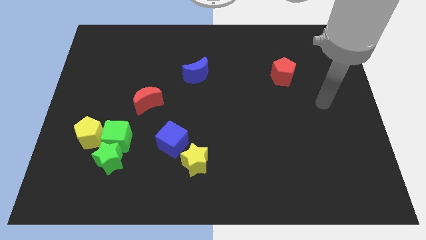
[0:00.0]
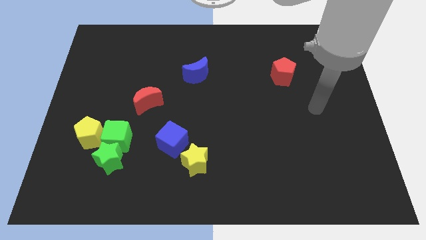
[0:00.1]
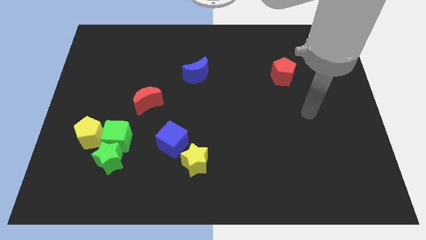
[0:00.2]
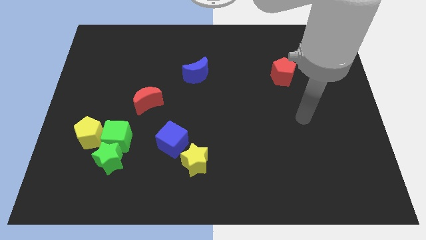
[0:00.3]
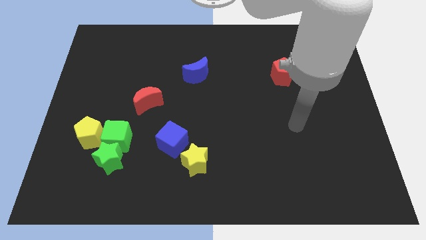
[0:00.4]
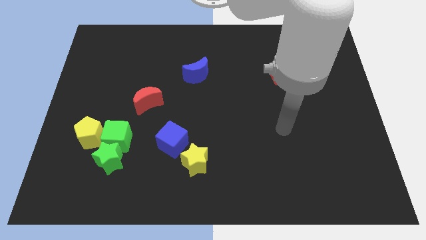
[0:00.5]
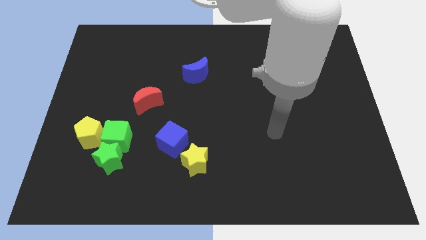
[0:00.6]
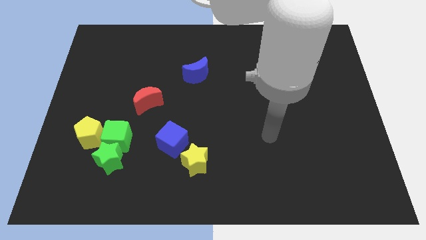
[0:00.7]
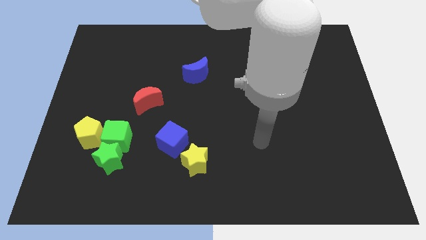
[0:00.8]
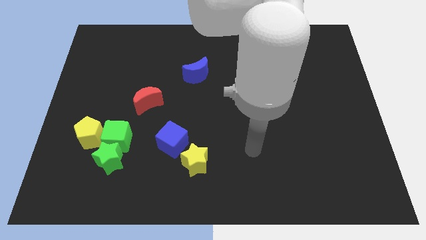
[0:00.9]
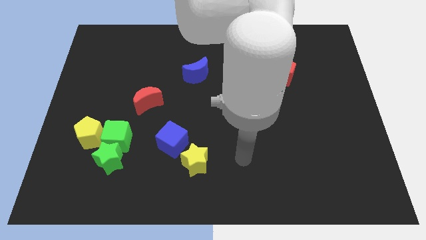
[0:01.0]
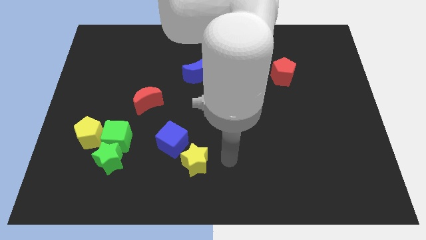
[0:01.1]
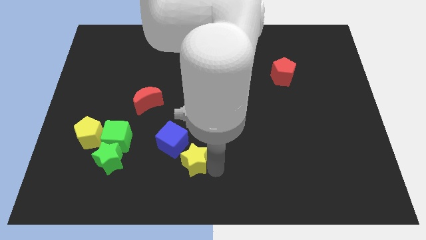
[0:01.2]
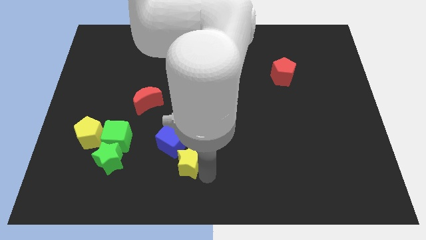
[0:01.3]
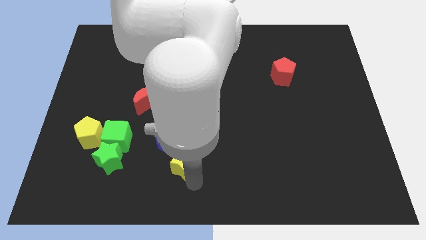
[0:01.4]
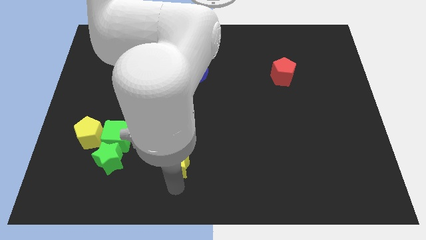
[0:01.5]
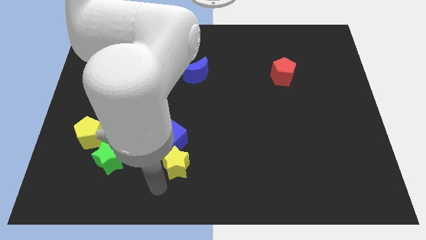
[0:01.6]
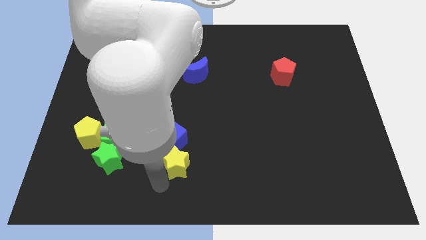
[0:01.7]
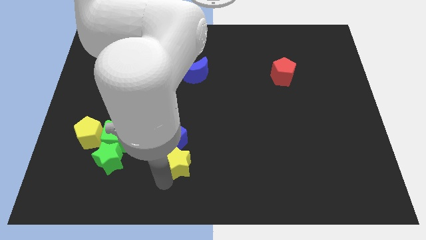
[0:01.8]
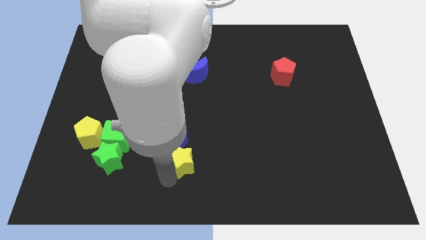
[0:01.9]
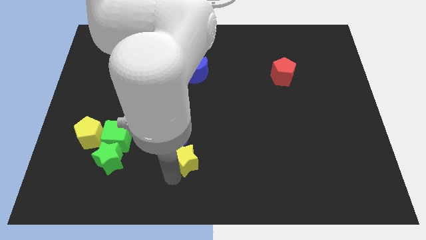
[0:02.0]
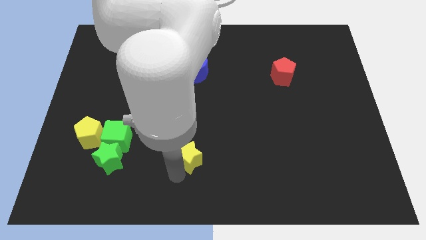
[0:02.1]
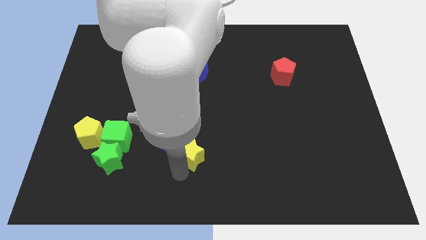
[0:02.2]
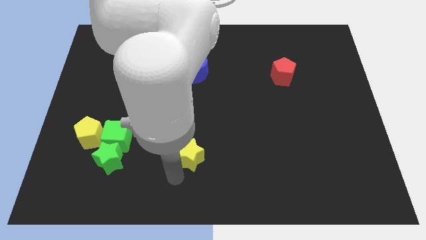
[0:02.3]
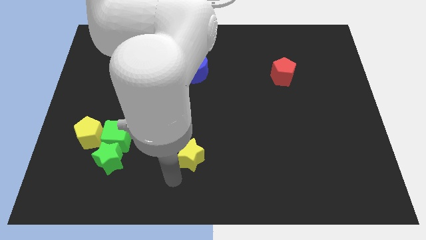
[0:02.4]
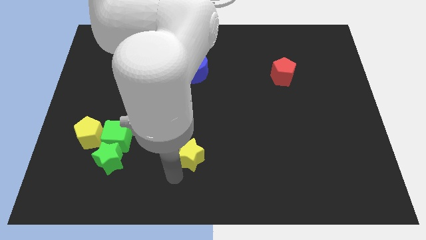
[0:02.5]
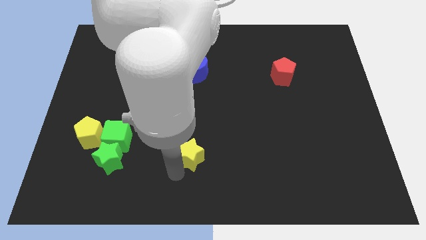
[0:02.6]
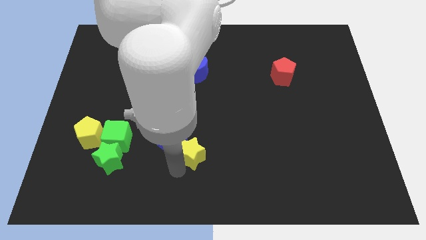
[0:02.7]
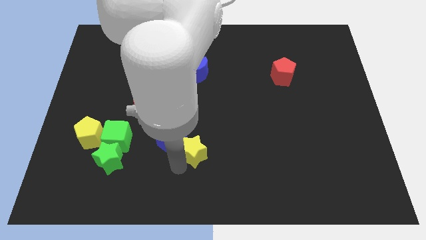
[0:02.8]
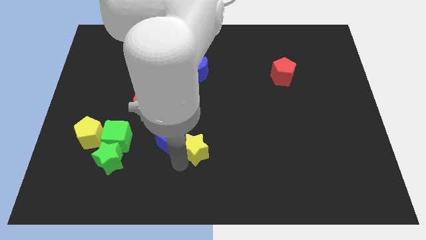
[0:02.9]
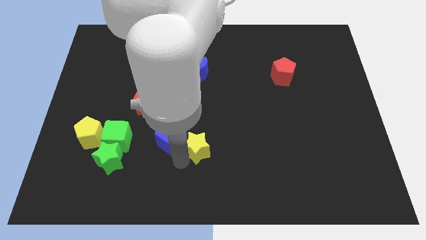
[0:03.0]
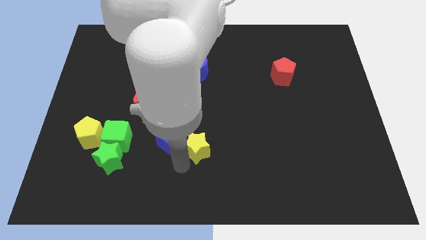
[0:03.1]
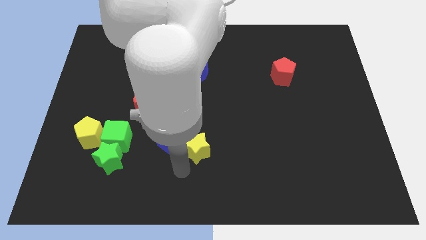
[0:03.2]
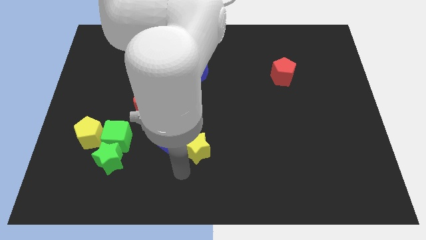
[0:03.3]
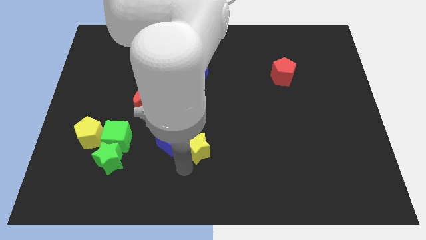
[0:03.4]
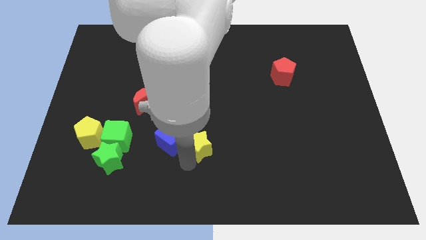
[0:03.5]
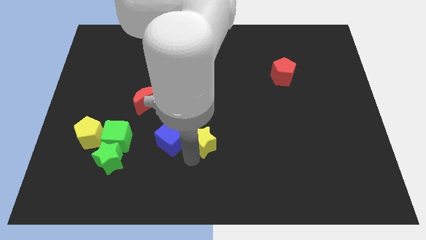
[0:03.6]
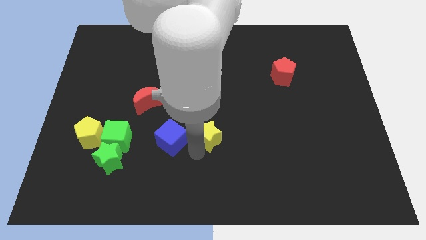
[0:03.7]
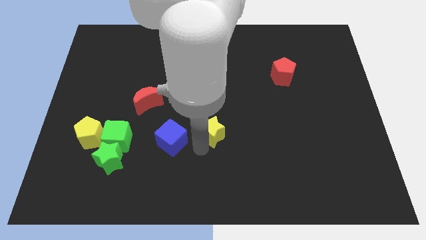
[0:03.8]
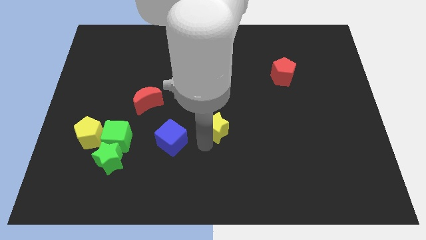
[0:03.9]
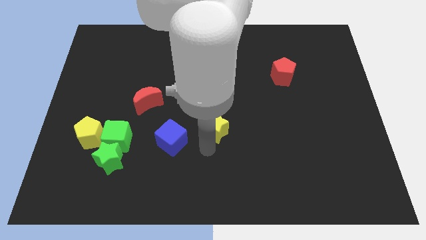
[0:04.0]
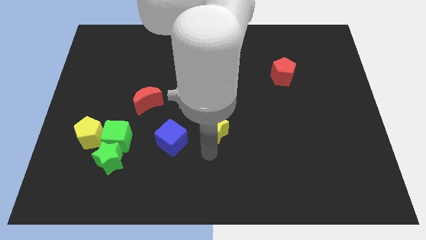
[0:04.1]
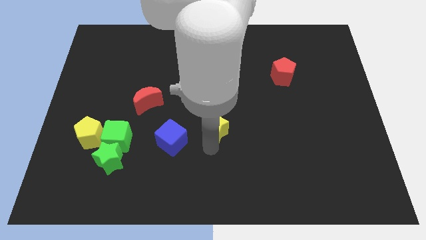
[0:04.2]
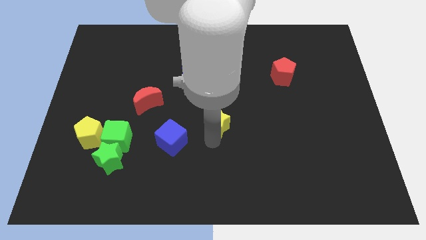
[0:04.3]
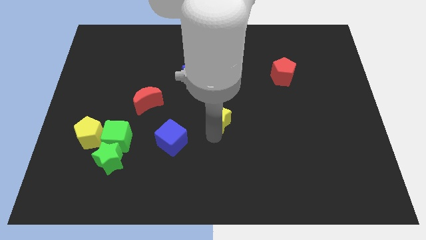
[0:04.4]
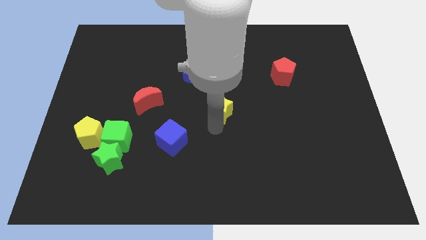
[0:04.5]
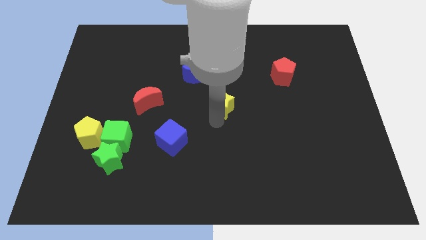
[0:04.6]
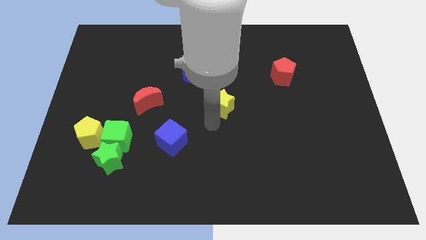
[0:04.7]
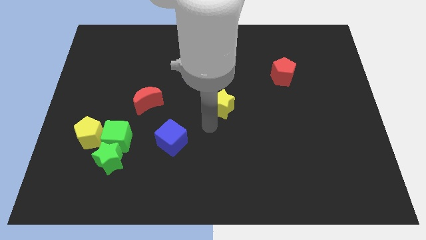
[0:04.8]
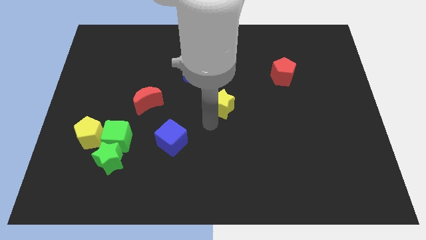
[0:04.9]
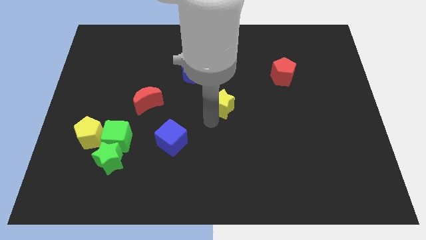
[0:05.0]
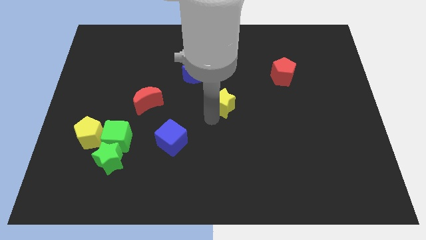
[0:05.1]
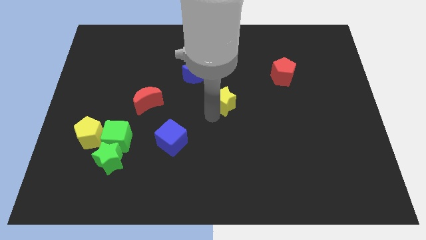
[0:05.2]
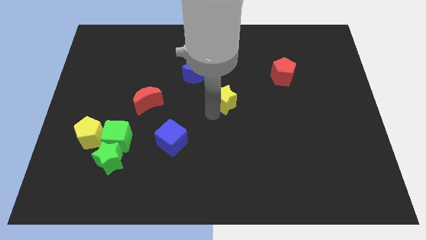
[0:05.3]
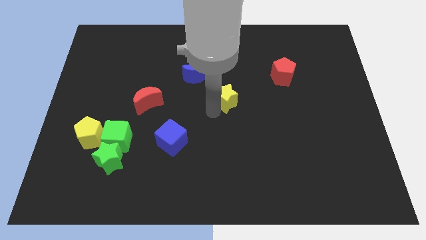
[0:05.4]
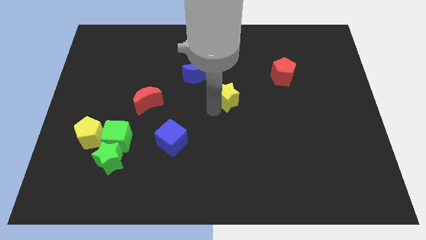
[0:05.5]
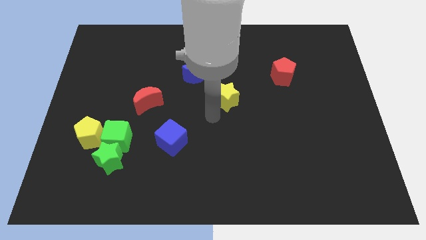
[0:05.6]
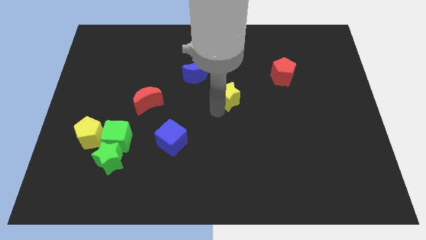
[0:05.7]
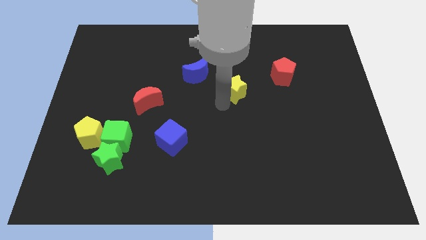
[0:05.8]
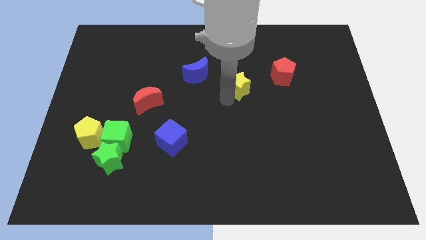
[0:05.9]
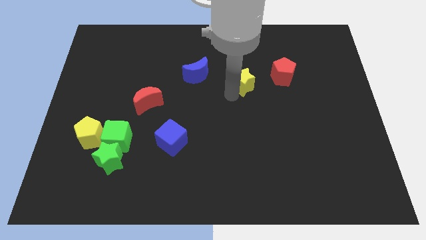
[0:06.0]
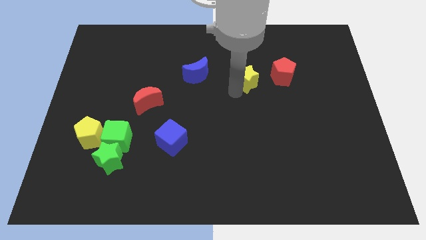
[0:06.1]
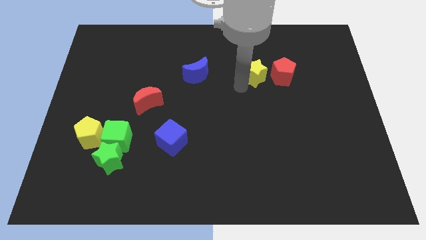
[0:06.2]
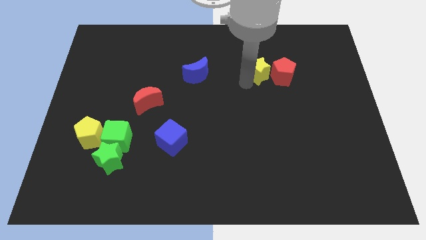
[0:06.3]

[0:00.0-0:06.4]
push the yellow star diagonally up and to the left of the red pentagon
